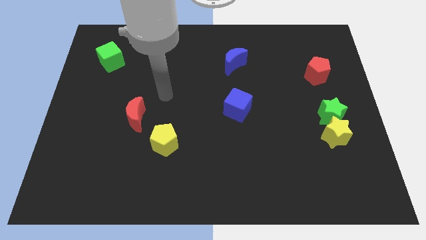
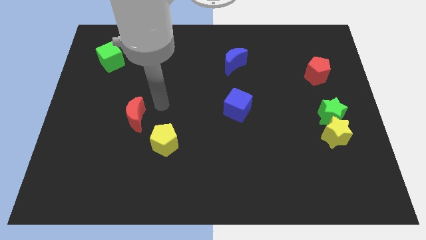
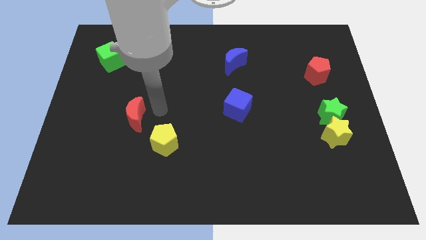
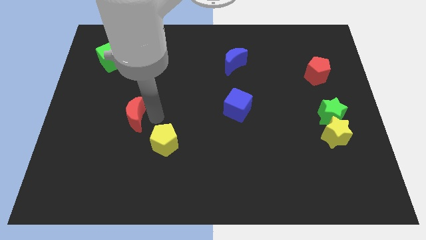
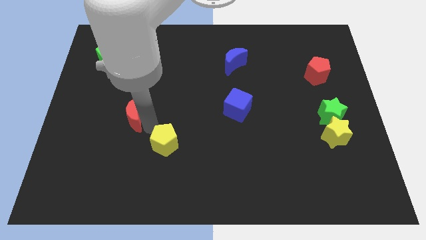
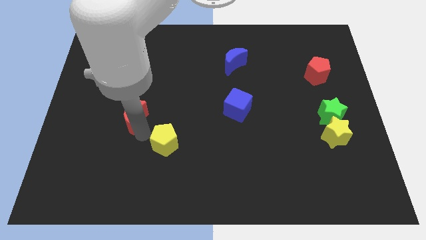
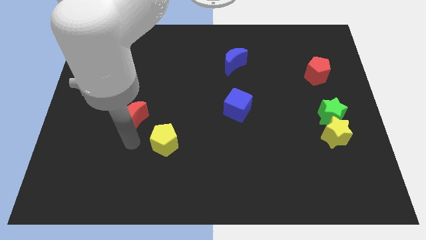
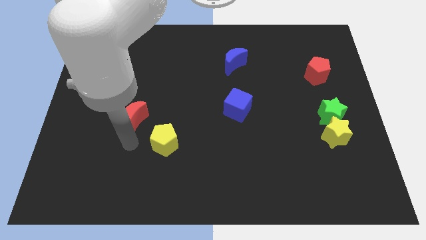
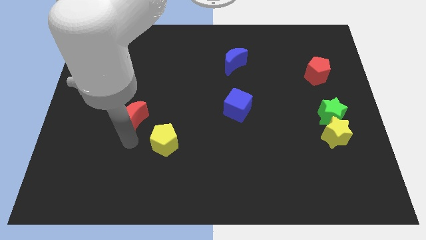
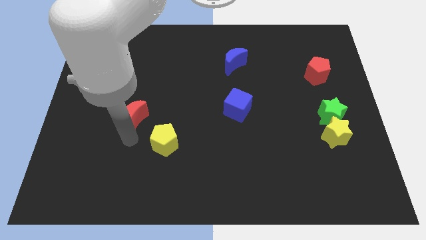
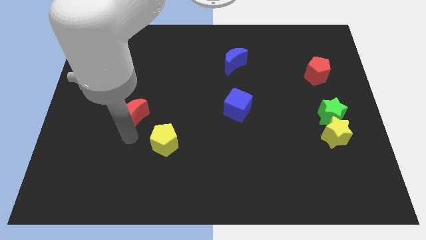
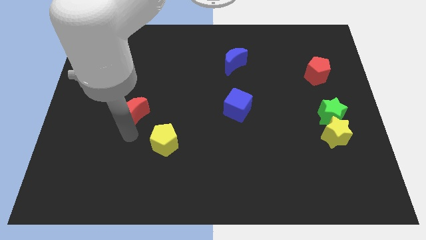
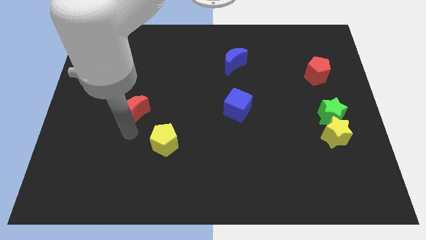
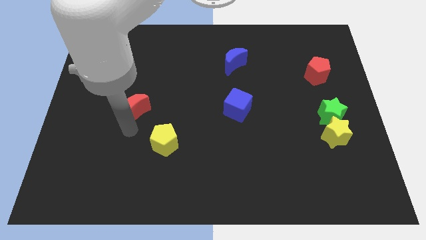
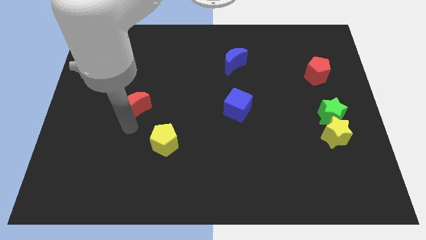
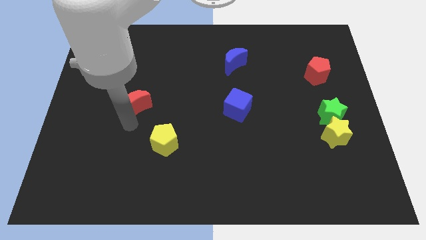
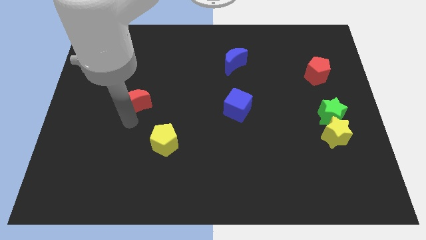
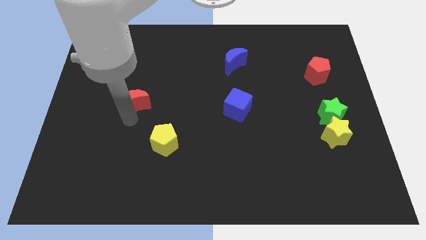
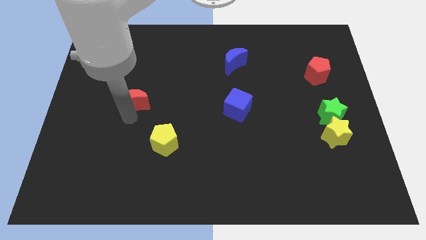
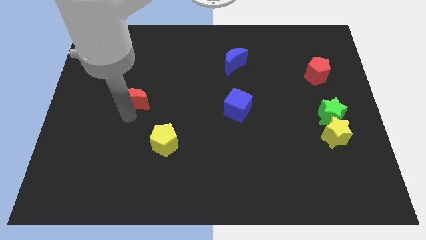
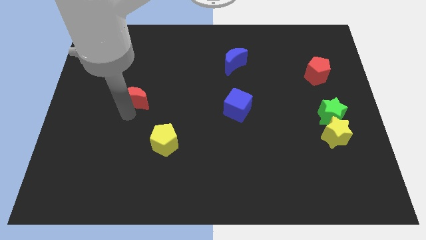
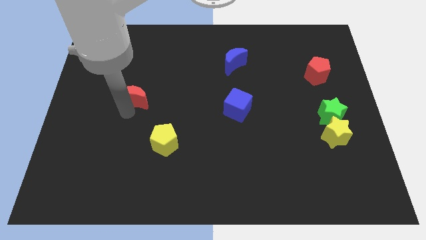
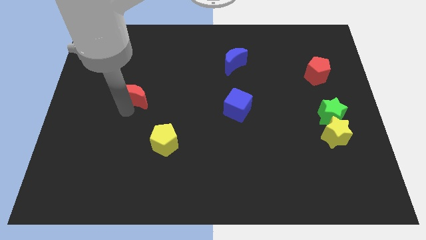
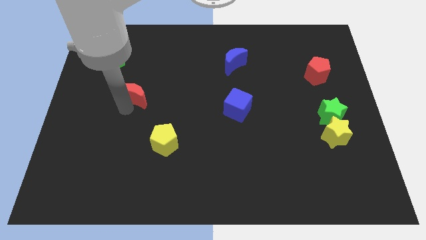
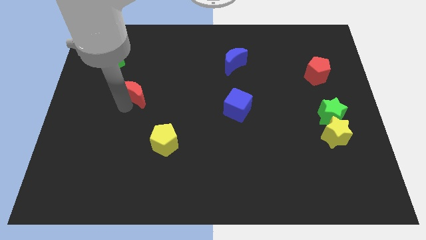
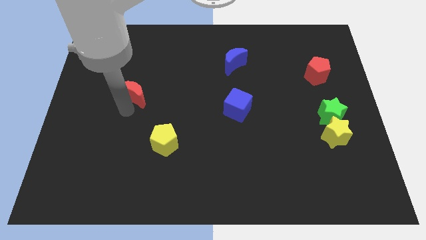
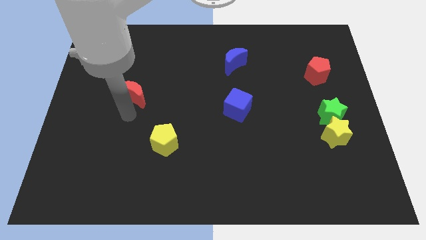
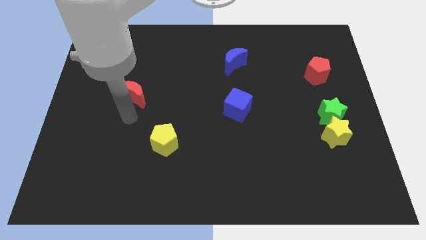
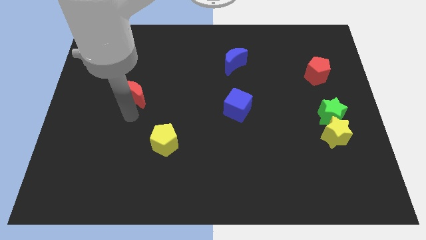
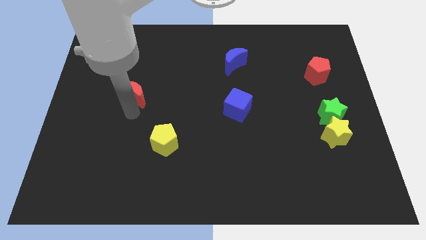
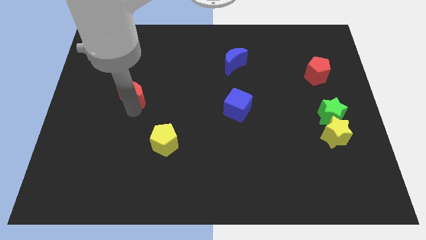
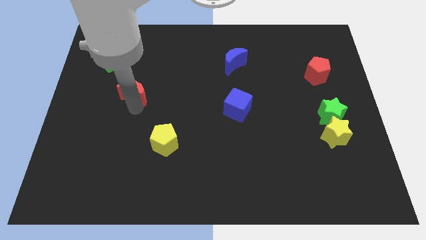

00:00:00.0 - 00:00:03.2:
slightly move the red moon up

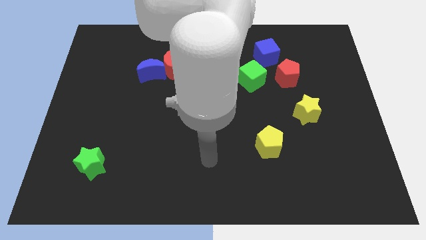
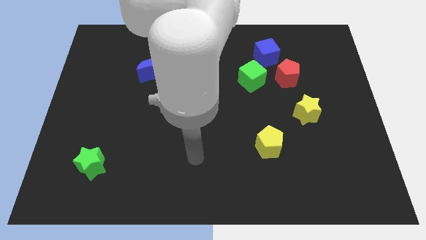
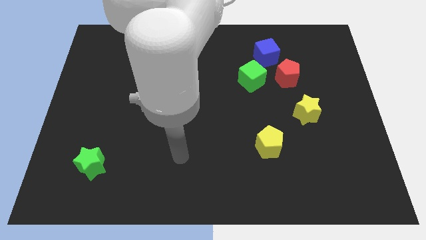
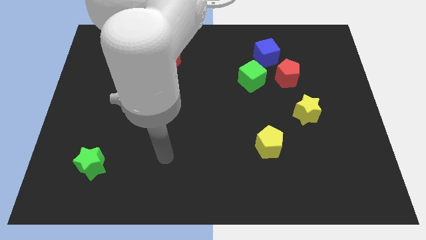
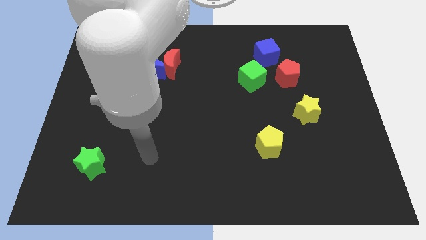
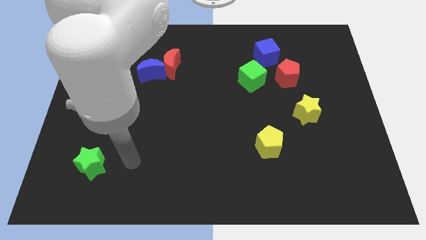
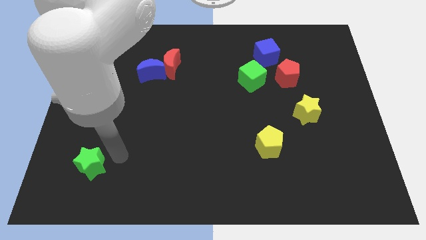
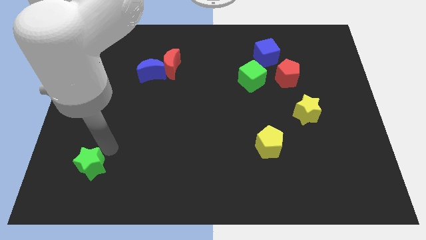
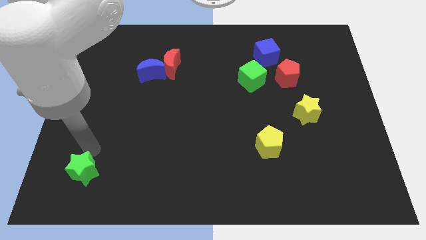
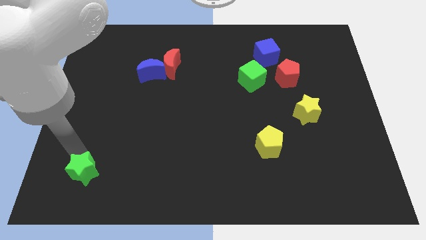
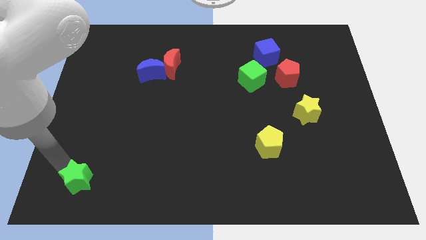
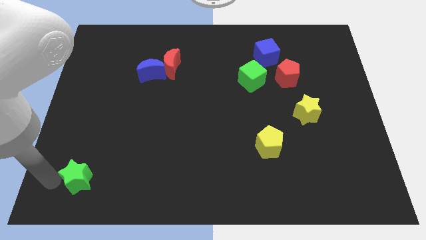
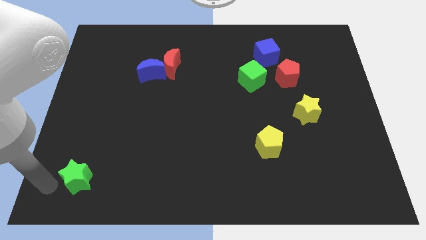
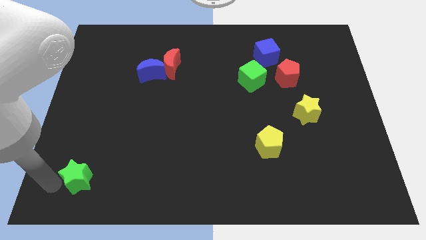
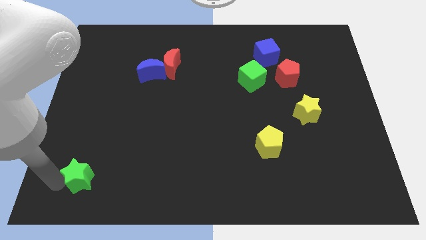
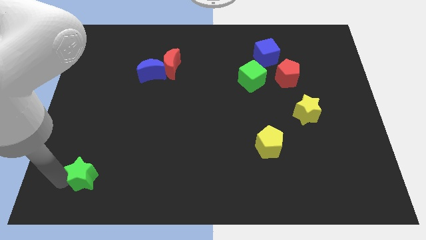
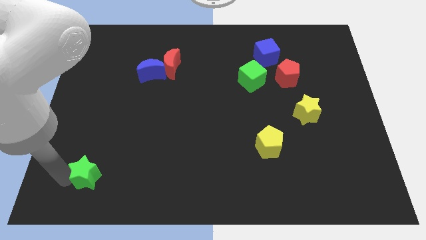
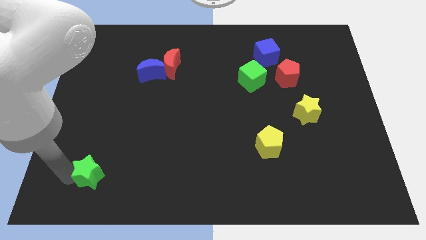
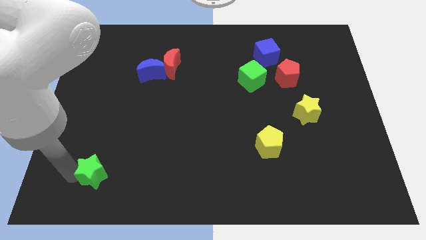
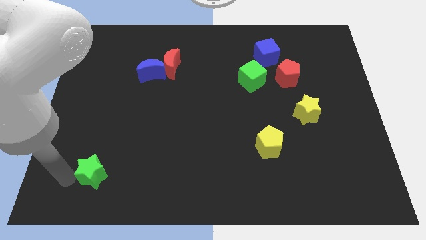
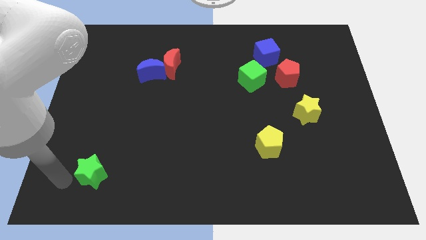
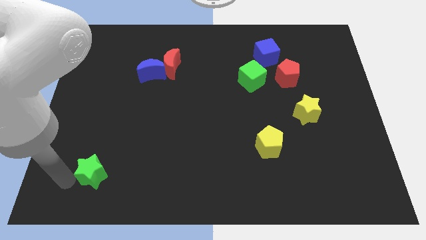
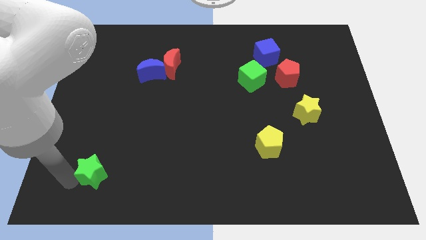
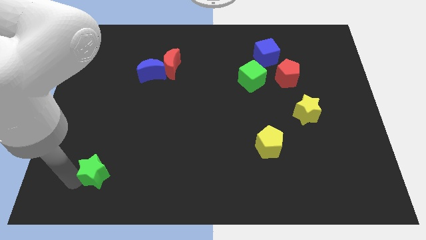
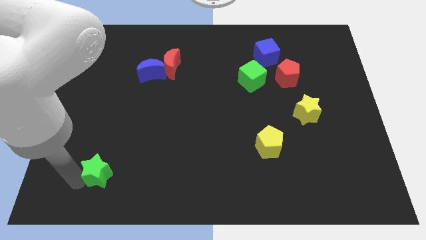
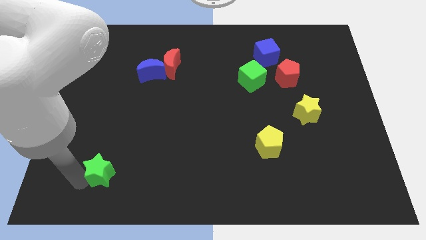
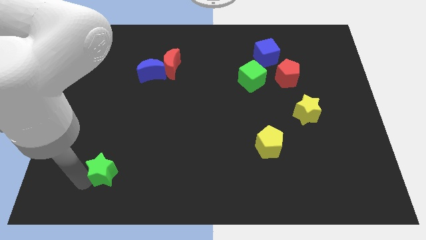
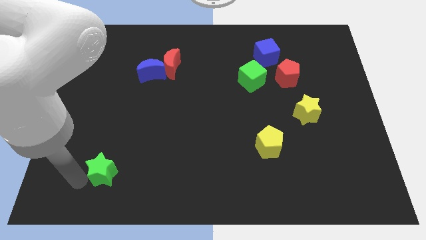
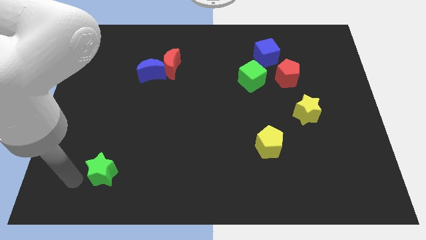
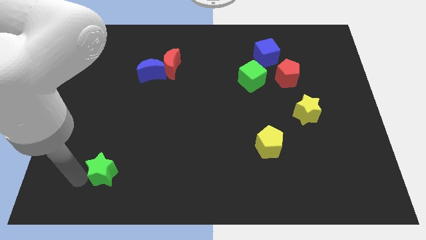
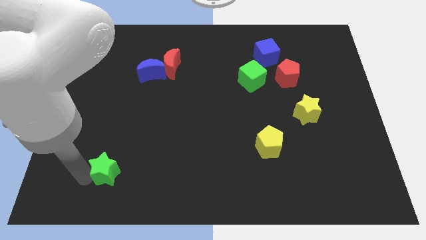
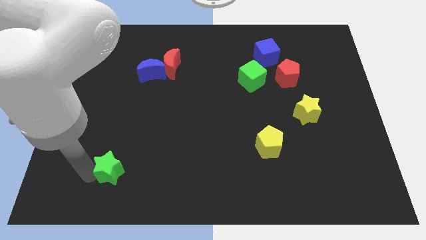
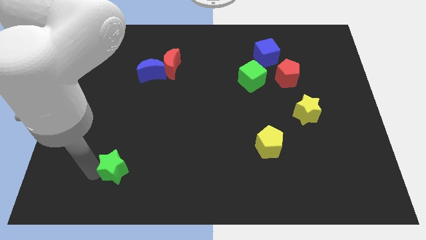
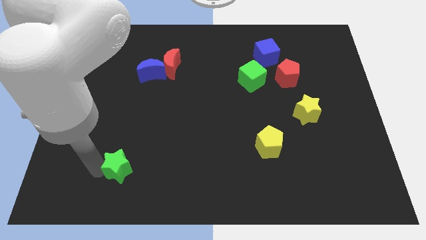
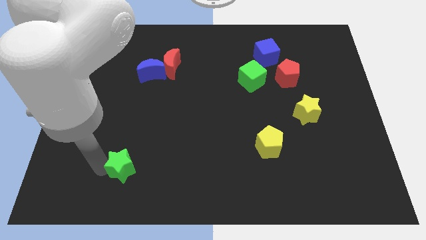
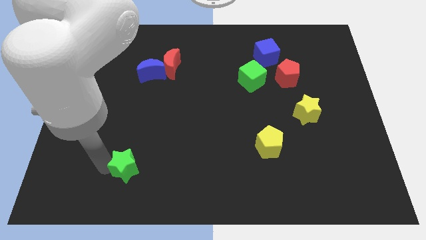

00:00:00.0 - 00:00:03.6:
slightly move the green star to the right

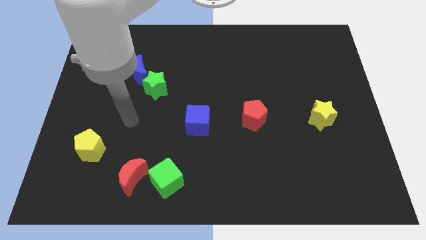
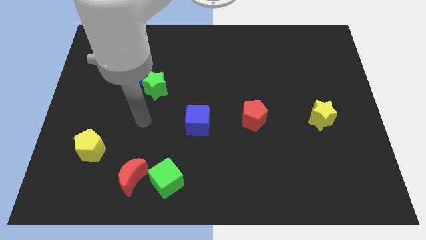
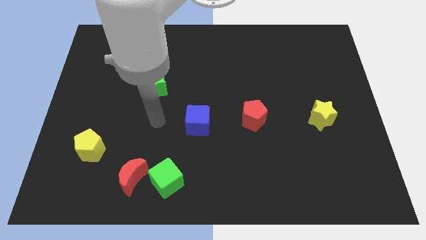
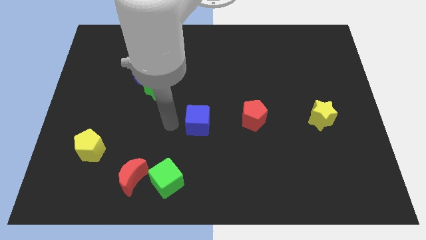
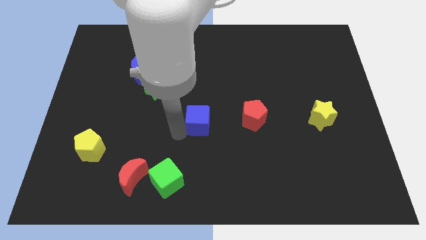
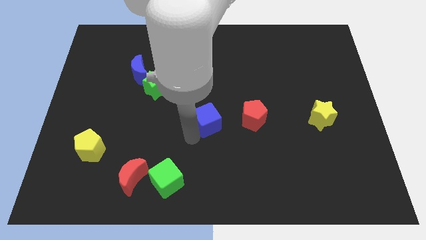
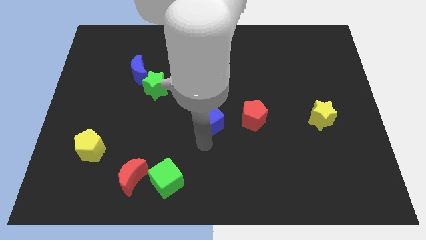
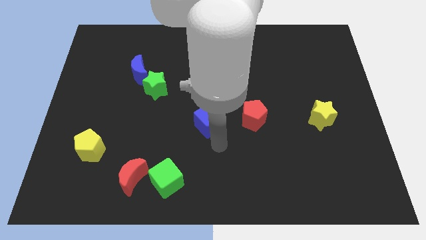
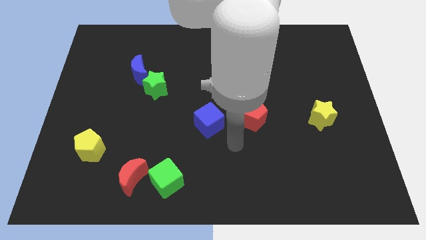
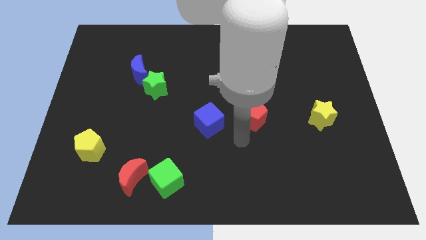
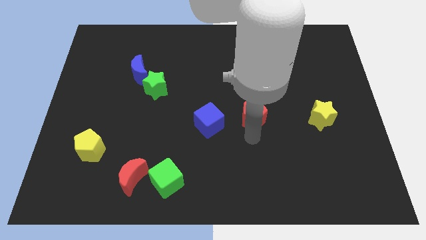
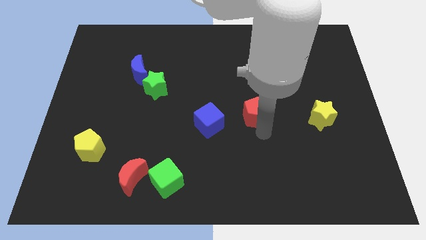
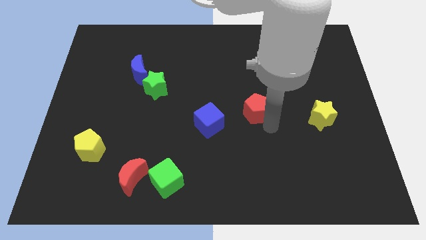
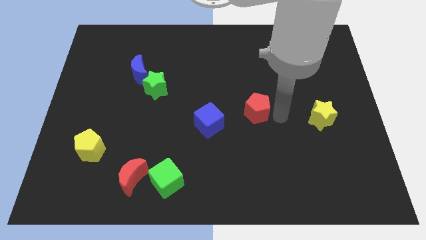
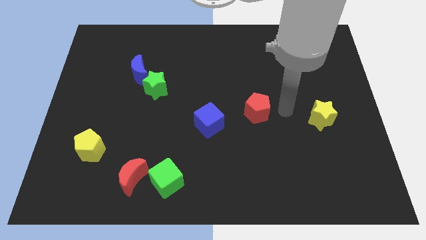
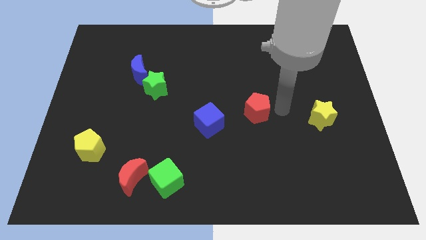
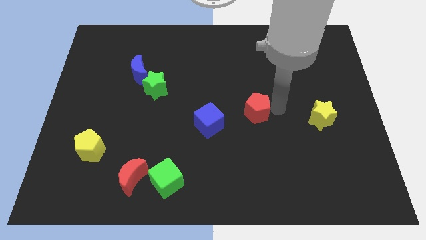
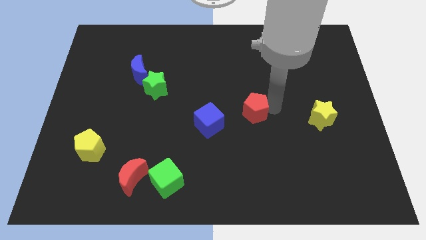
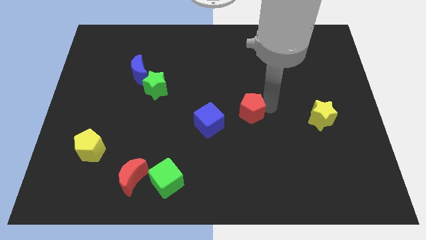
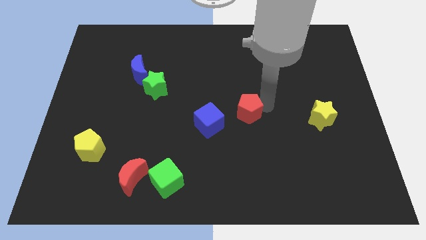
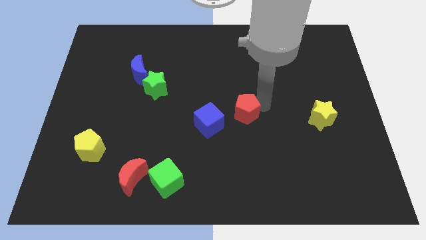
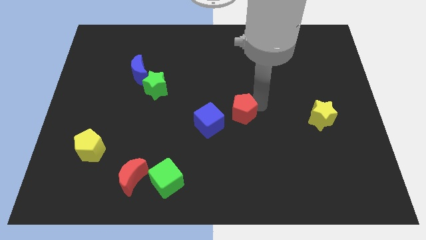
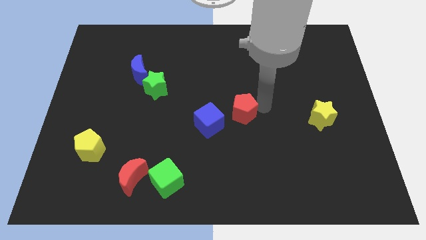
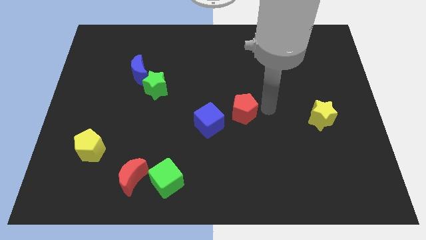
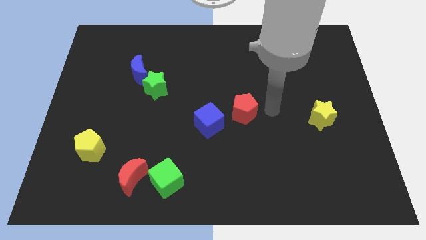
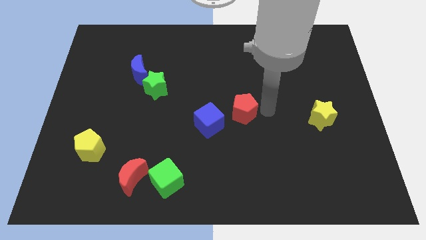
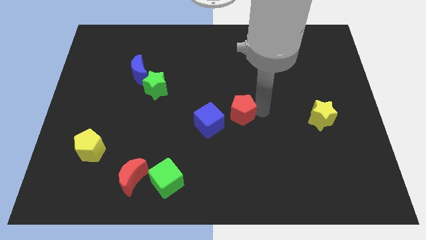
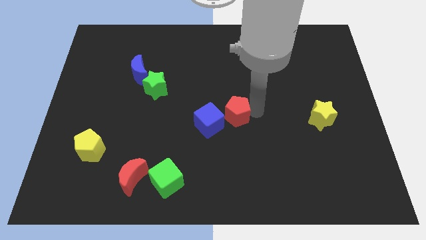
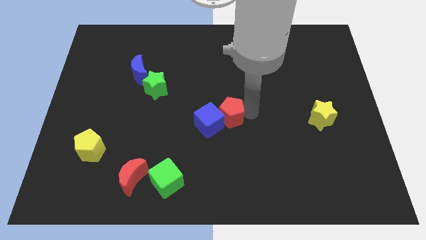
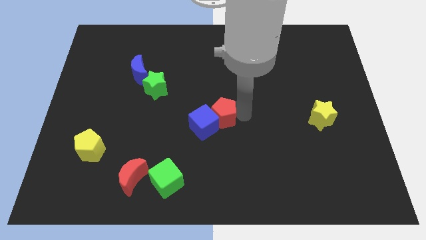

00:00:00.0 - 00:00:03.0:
slide the red pentagon slightly to the left
